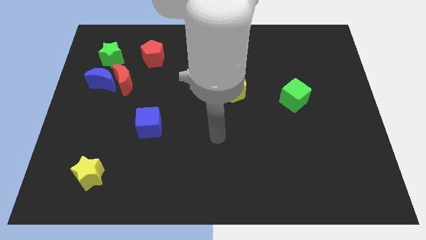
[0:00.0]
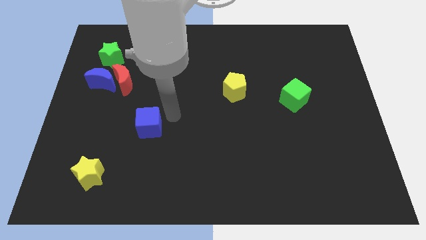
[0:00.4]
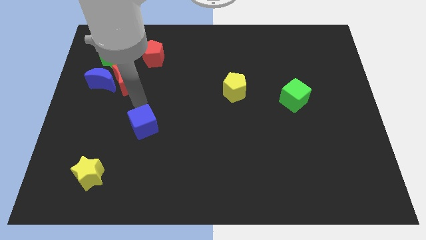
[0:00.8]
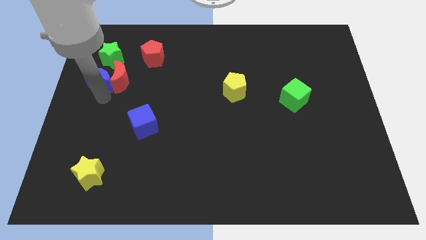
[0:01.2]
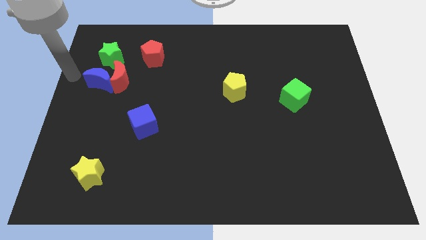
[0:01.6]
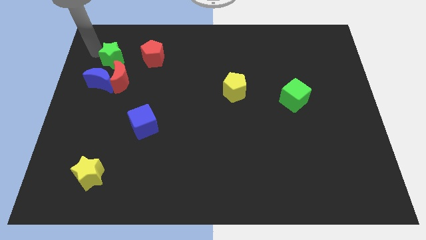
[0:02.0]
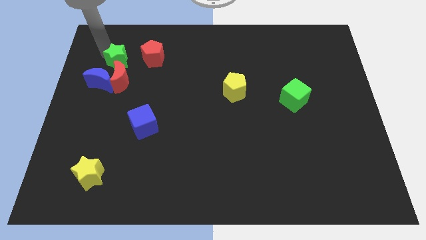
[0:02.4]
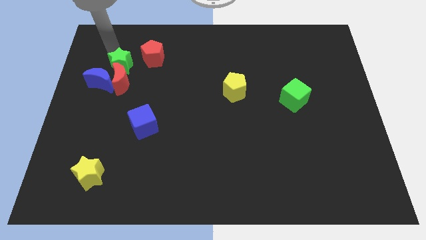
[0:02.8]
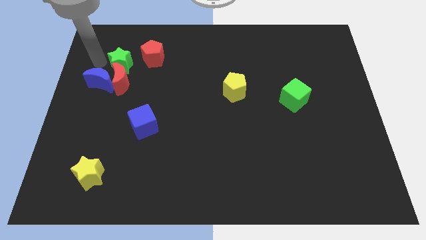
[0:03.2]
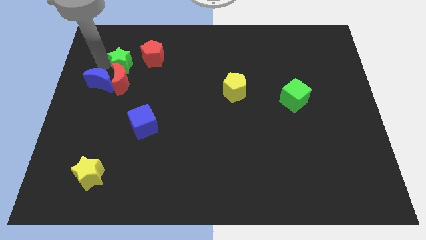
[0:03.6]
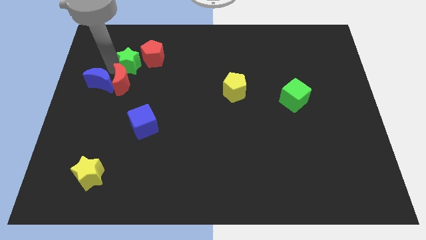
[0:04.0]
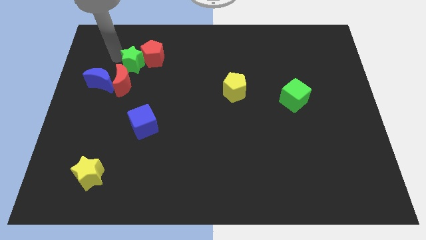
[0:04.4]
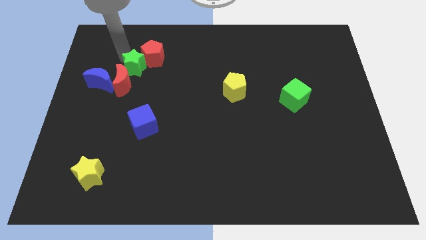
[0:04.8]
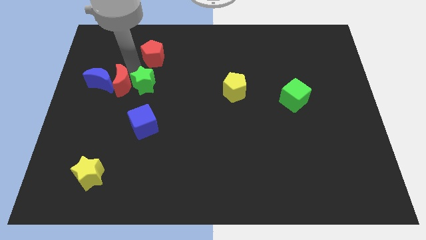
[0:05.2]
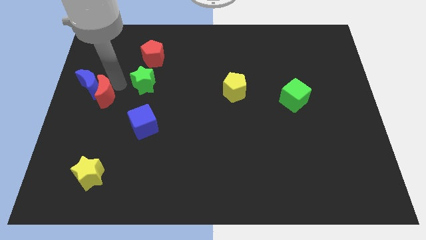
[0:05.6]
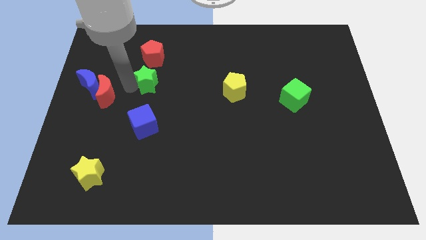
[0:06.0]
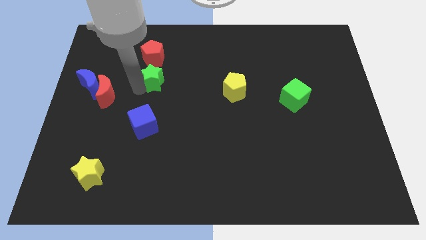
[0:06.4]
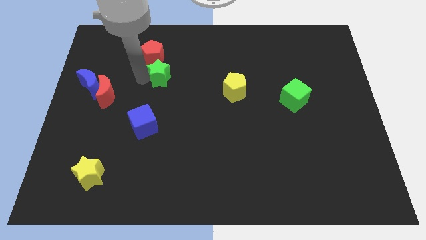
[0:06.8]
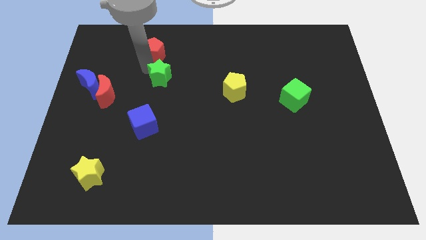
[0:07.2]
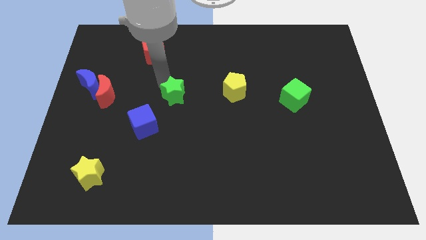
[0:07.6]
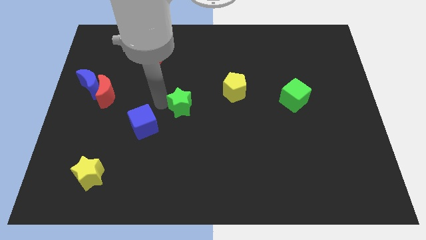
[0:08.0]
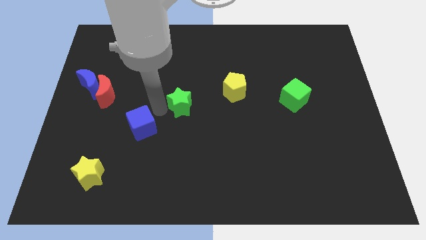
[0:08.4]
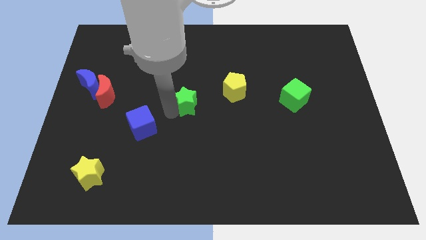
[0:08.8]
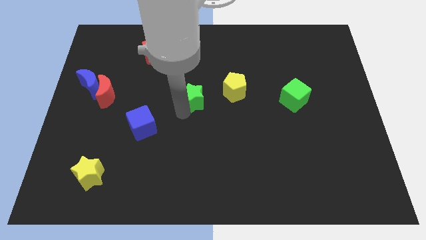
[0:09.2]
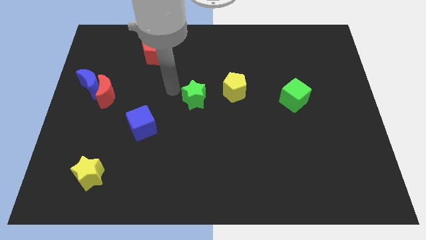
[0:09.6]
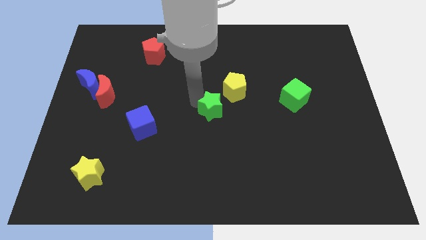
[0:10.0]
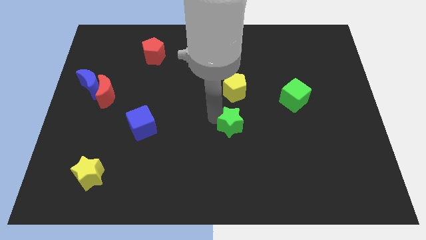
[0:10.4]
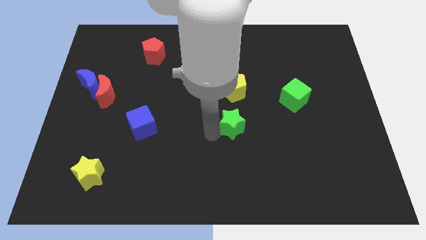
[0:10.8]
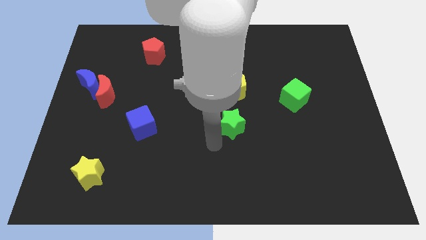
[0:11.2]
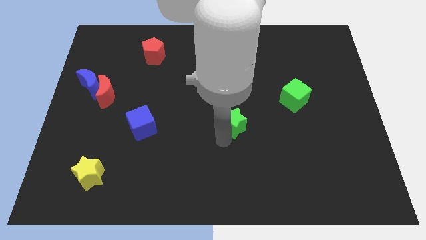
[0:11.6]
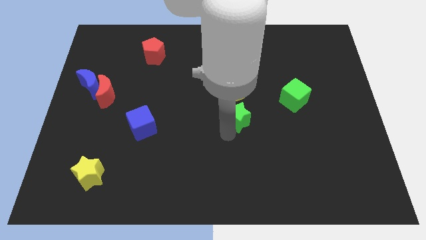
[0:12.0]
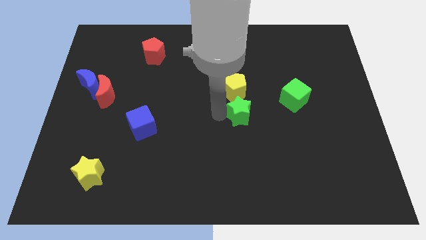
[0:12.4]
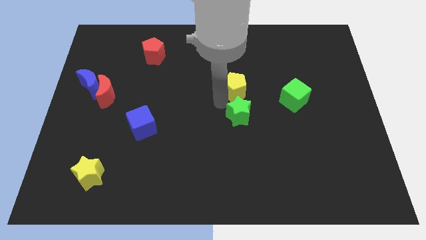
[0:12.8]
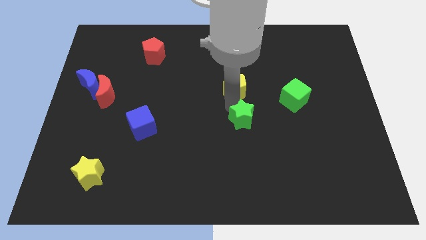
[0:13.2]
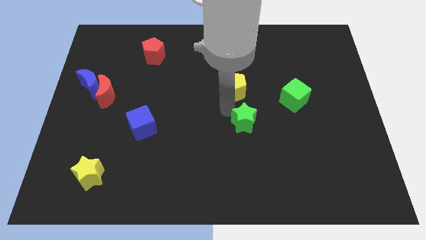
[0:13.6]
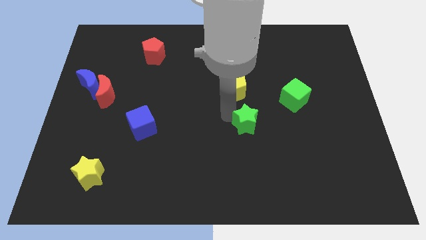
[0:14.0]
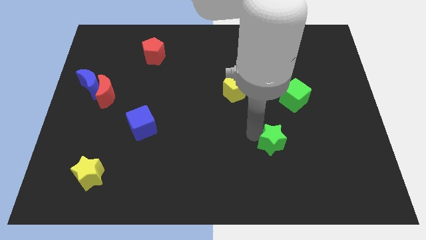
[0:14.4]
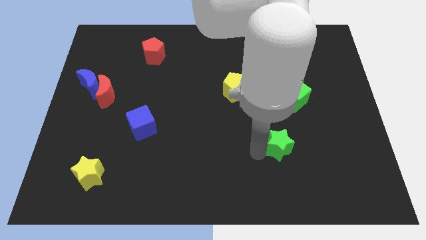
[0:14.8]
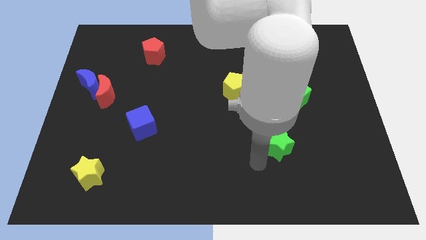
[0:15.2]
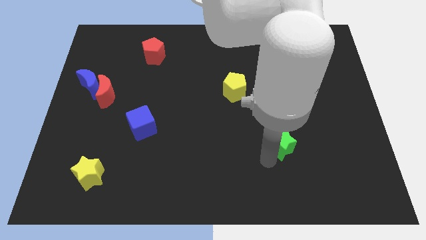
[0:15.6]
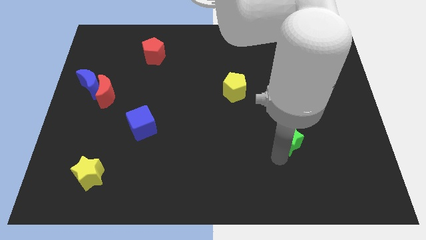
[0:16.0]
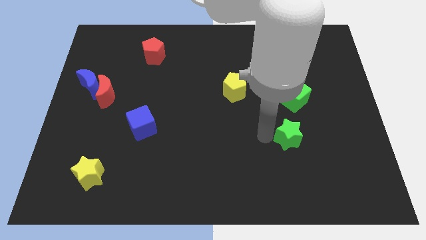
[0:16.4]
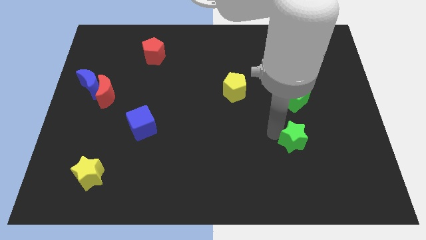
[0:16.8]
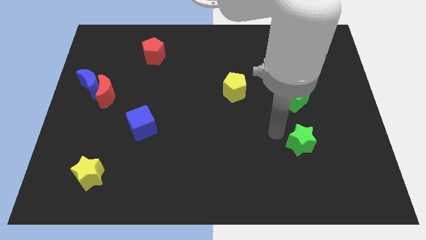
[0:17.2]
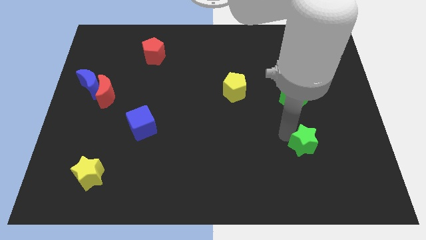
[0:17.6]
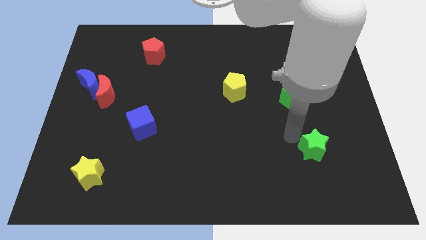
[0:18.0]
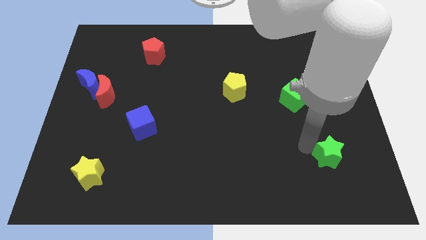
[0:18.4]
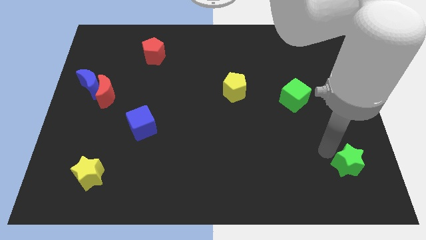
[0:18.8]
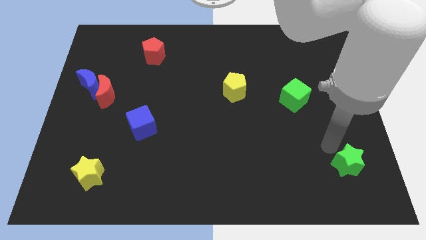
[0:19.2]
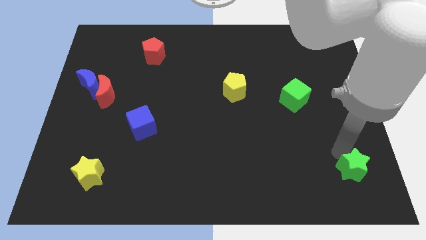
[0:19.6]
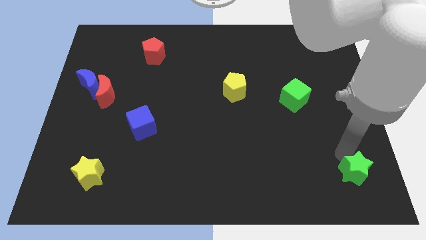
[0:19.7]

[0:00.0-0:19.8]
put the green star to the bottom right corner

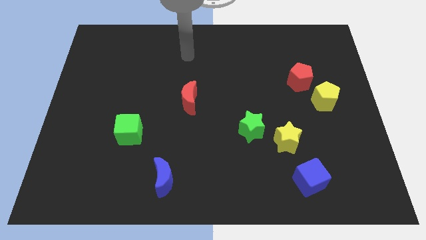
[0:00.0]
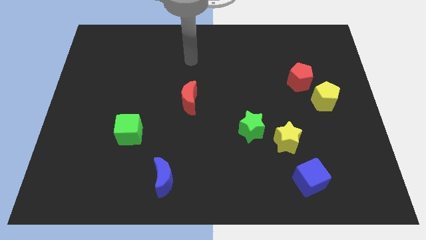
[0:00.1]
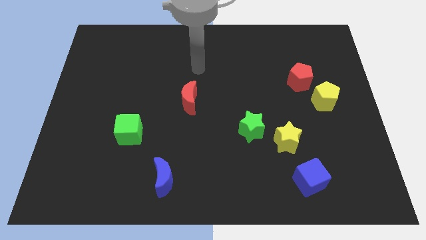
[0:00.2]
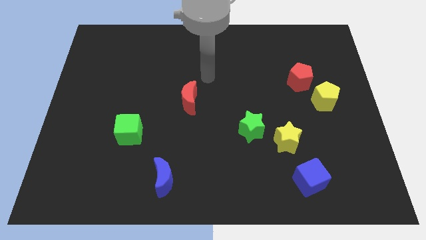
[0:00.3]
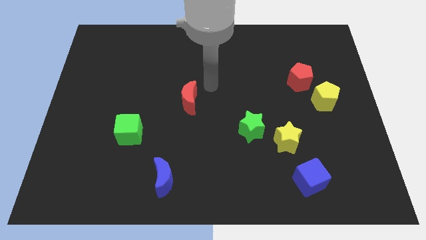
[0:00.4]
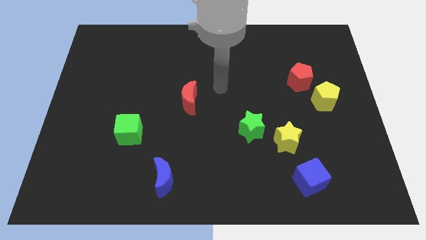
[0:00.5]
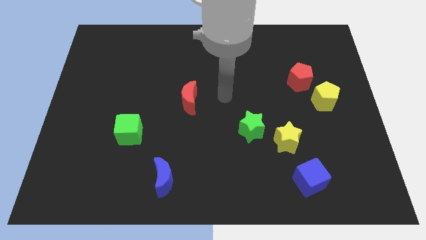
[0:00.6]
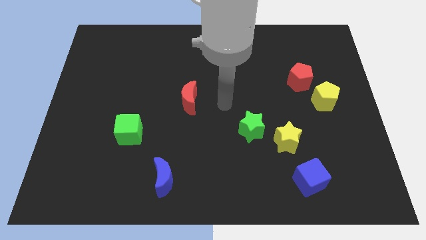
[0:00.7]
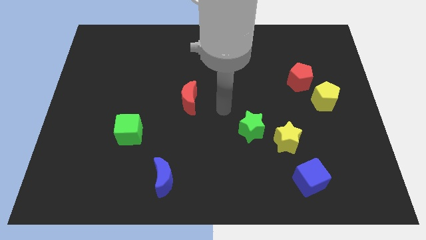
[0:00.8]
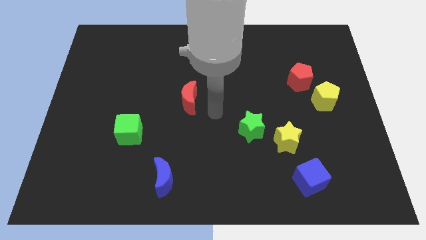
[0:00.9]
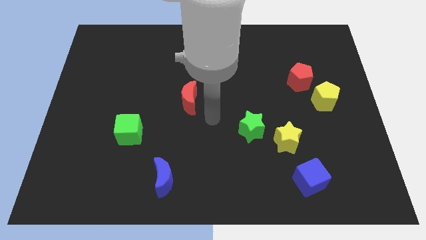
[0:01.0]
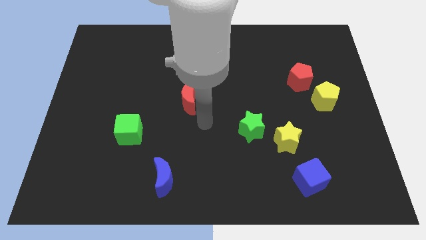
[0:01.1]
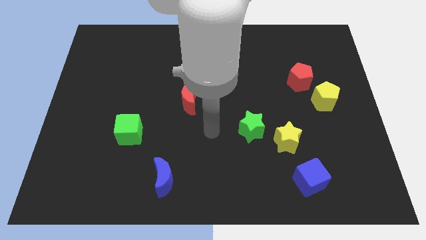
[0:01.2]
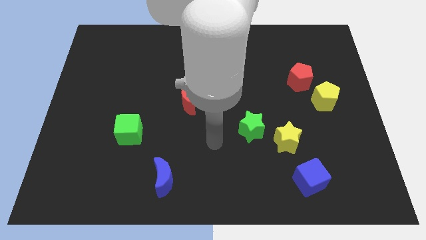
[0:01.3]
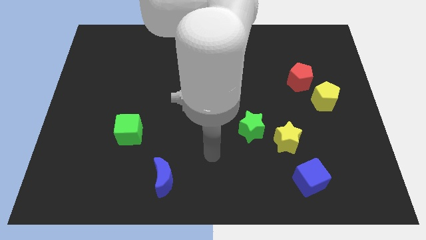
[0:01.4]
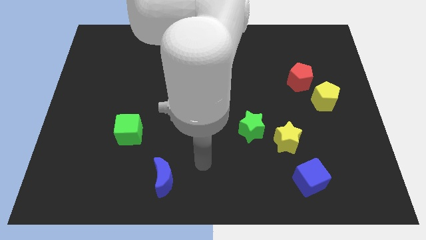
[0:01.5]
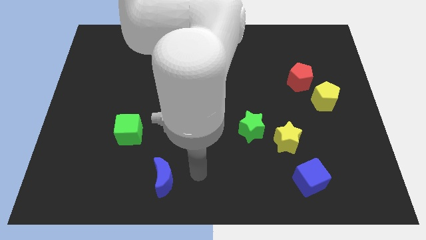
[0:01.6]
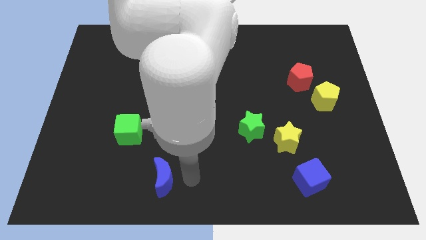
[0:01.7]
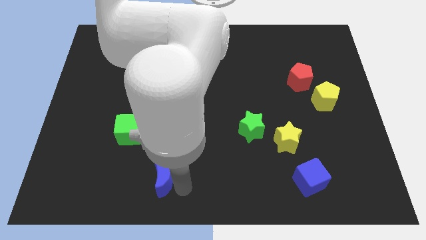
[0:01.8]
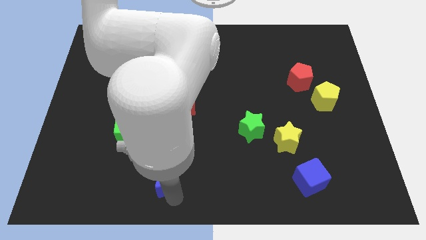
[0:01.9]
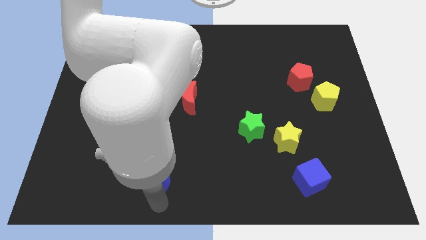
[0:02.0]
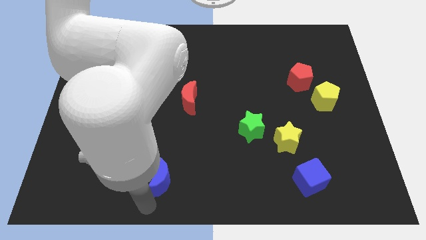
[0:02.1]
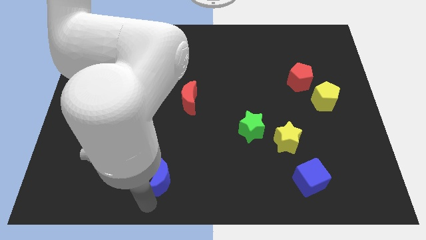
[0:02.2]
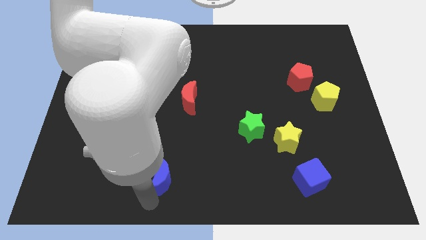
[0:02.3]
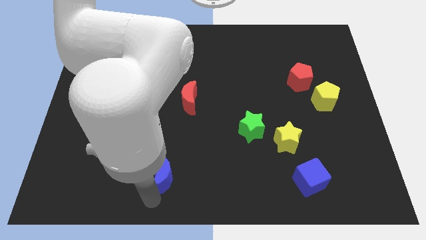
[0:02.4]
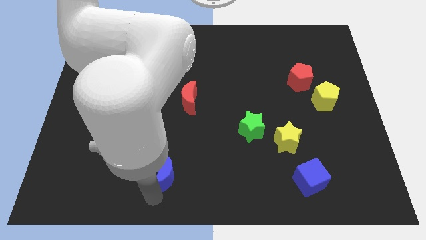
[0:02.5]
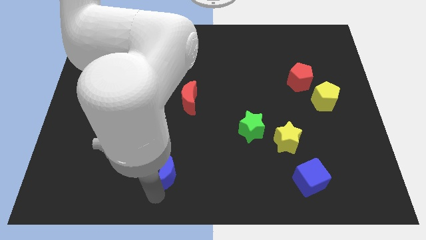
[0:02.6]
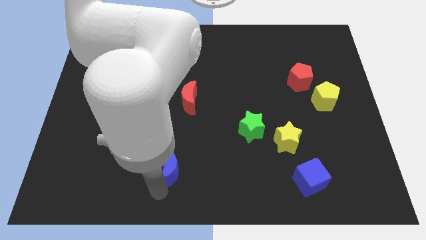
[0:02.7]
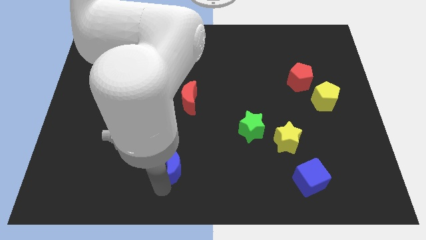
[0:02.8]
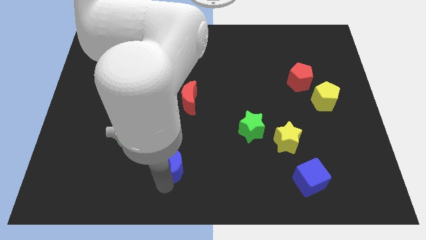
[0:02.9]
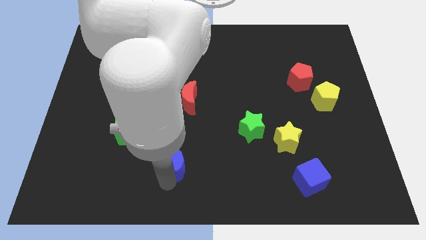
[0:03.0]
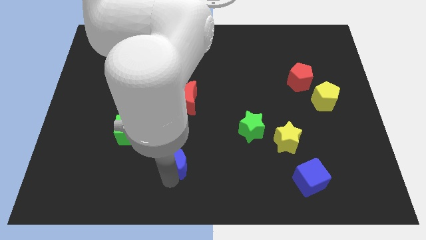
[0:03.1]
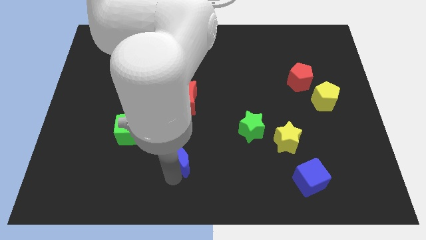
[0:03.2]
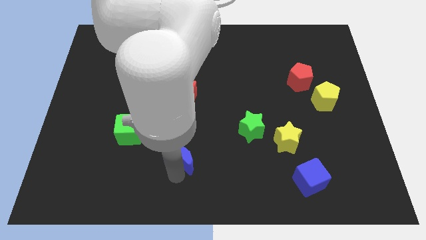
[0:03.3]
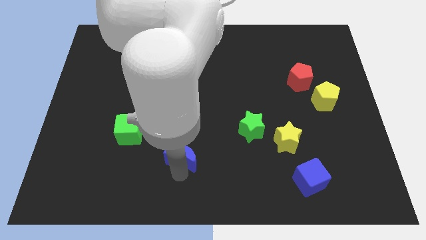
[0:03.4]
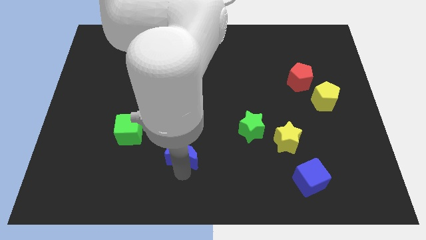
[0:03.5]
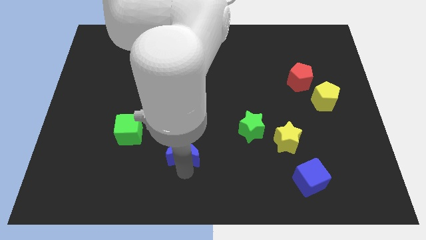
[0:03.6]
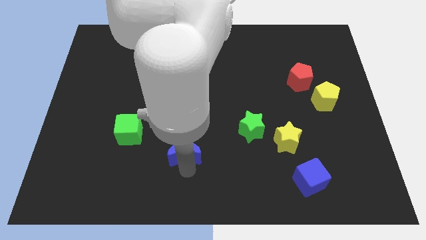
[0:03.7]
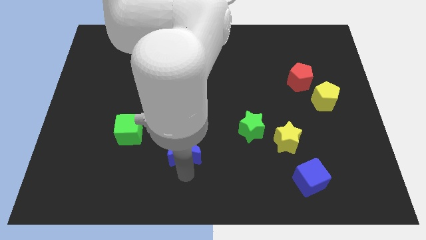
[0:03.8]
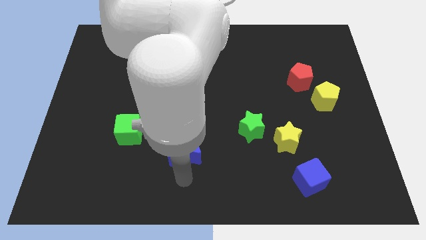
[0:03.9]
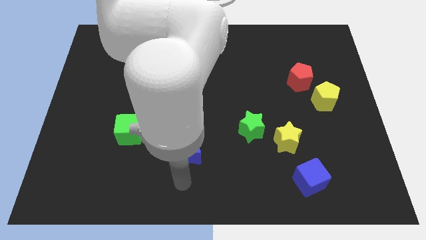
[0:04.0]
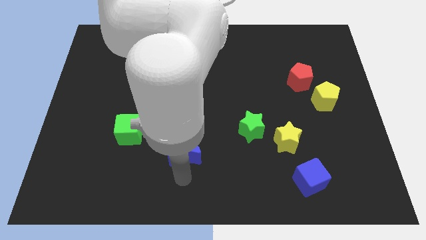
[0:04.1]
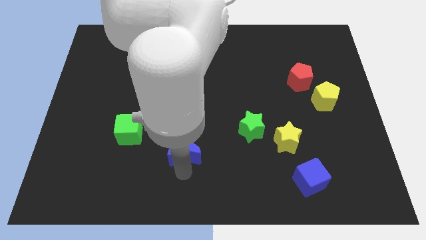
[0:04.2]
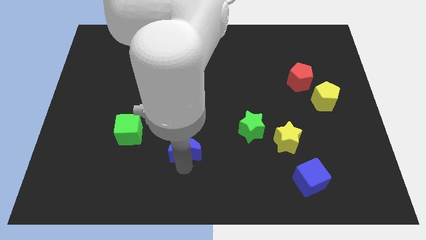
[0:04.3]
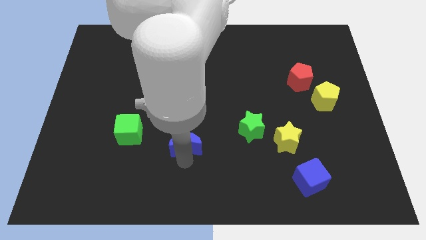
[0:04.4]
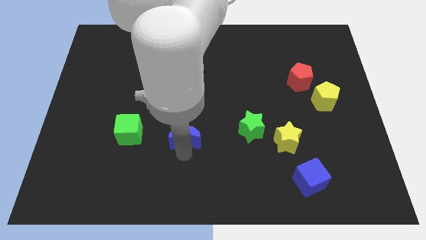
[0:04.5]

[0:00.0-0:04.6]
slide the blue moon to the center of the board
